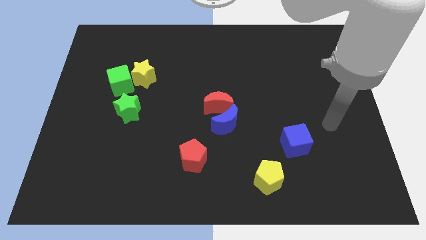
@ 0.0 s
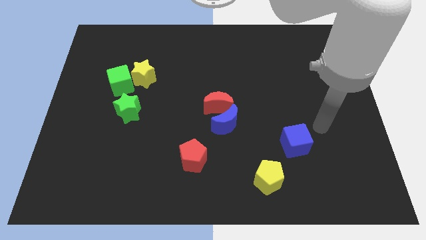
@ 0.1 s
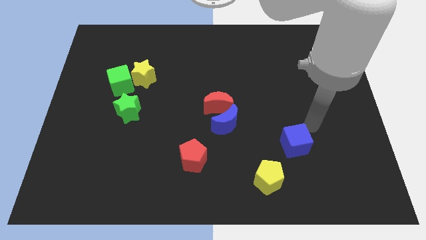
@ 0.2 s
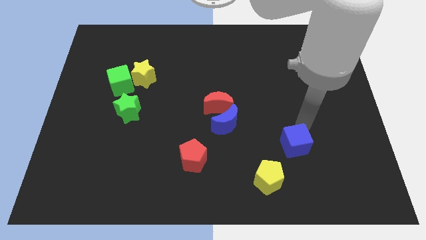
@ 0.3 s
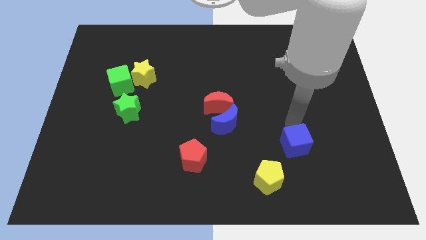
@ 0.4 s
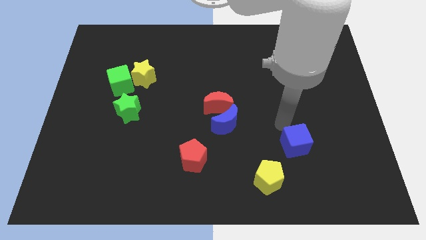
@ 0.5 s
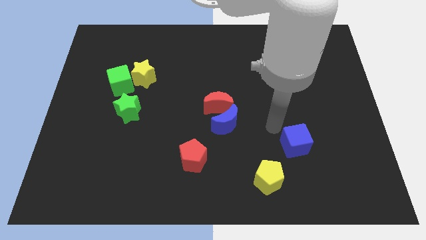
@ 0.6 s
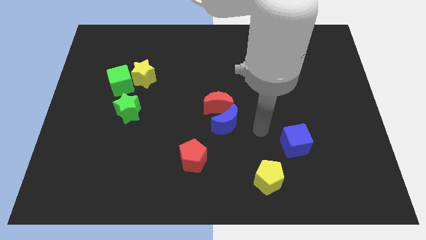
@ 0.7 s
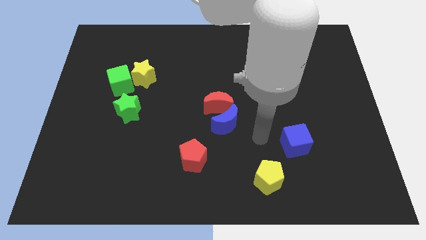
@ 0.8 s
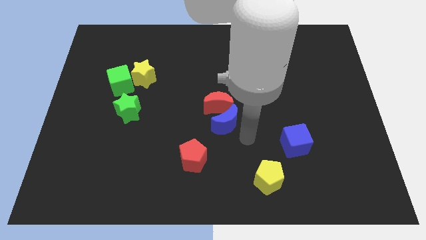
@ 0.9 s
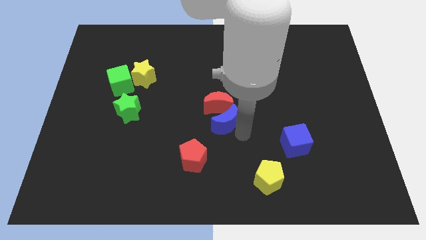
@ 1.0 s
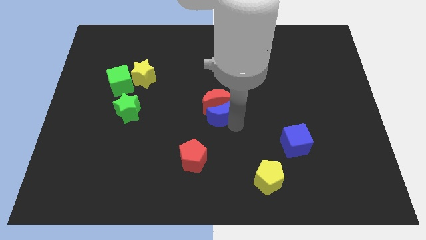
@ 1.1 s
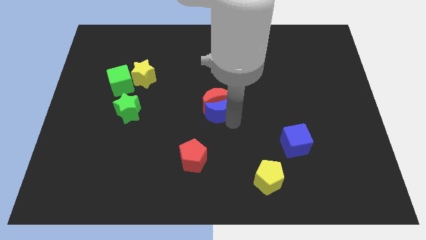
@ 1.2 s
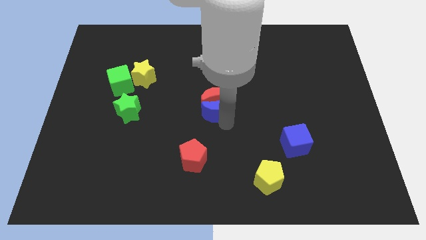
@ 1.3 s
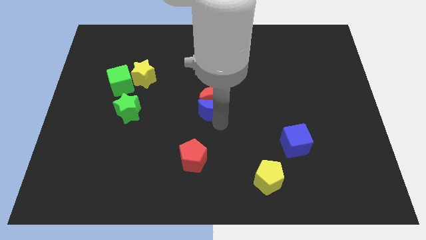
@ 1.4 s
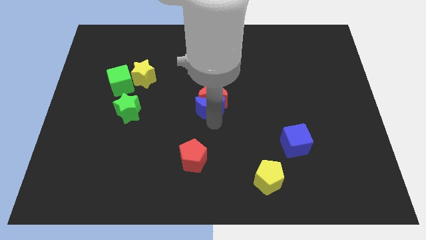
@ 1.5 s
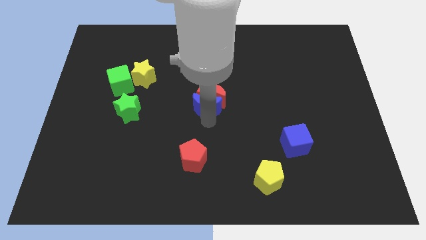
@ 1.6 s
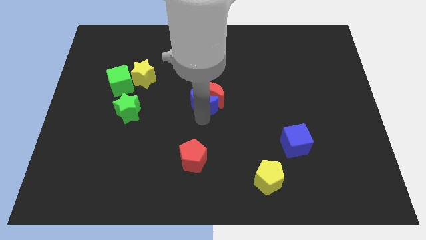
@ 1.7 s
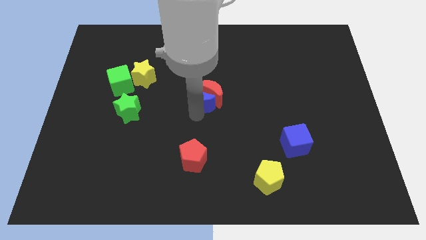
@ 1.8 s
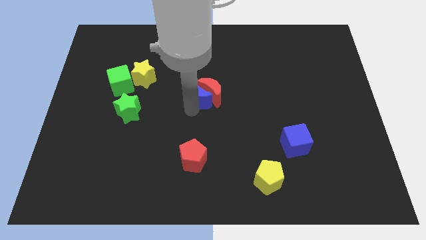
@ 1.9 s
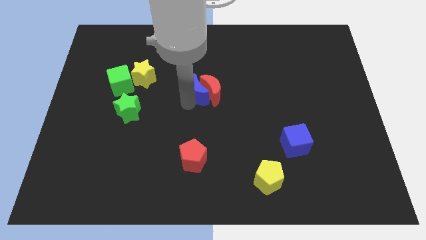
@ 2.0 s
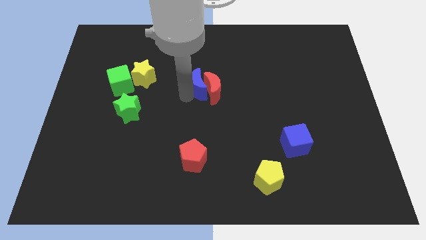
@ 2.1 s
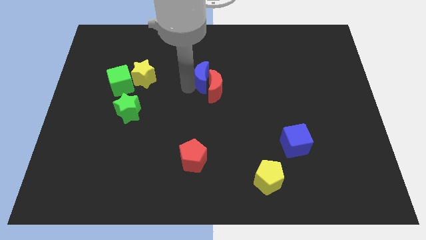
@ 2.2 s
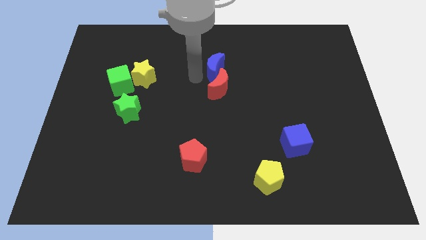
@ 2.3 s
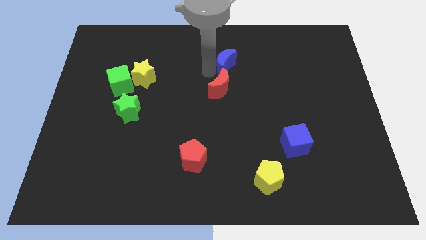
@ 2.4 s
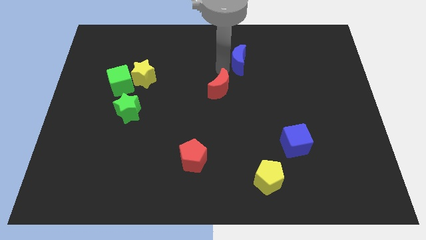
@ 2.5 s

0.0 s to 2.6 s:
pull the red moon apart from the blue moon

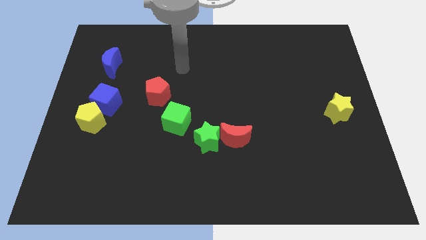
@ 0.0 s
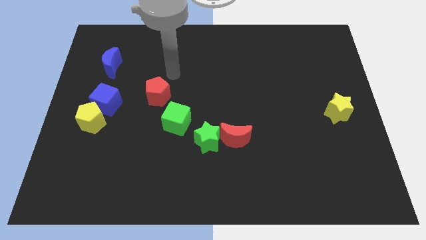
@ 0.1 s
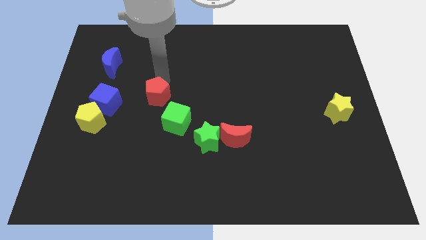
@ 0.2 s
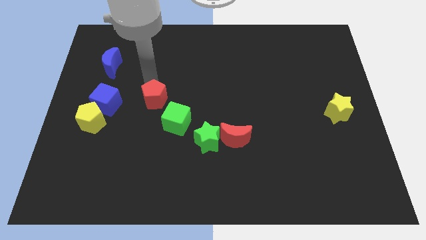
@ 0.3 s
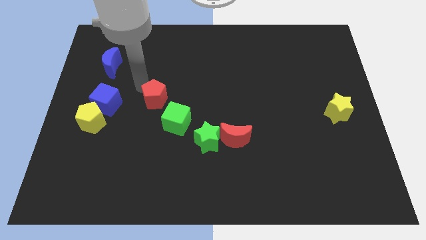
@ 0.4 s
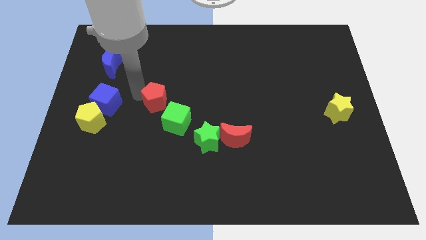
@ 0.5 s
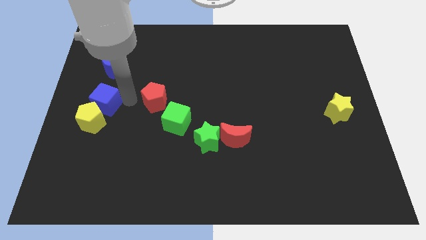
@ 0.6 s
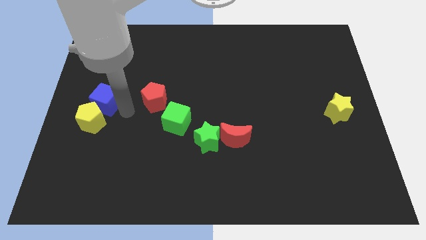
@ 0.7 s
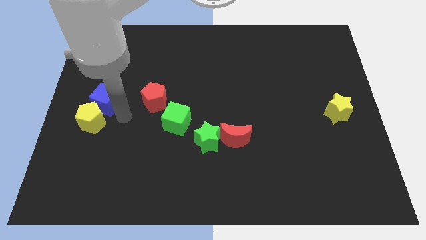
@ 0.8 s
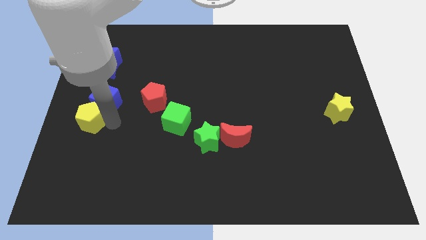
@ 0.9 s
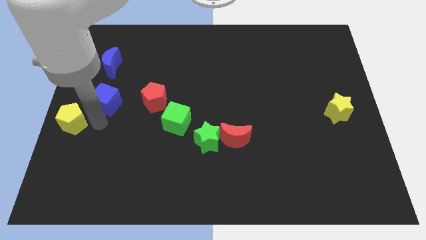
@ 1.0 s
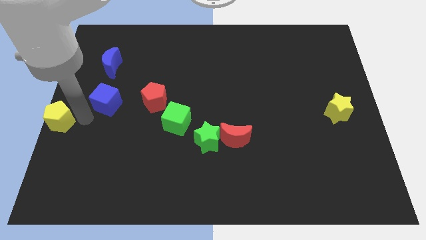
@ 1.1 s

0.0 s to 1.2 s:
separate the blue cube from the yellow pentagon

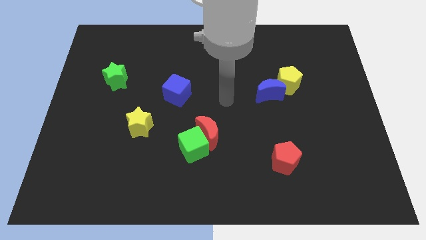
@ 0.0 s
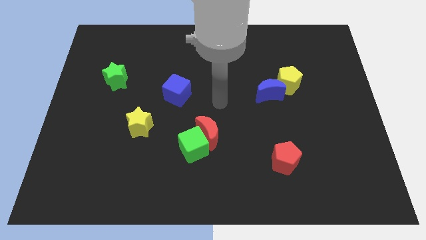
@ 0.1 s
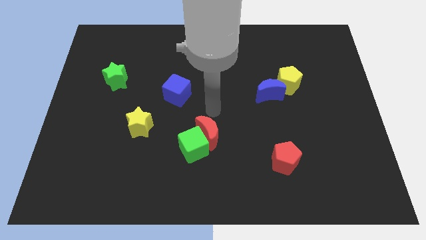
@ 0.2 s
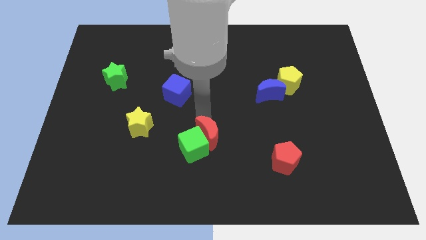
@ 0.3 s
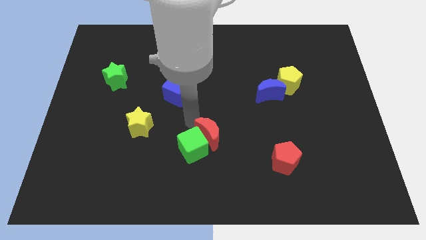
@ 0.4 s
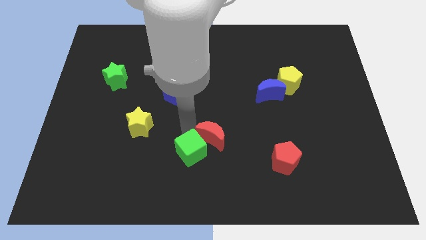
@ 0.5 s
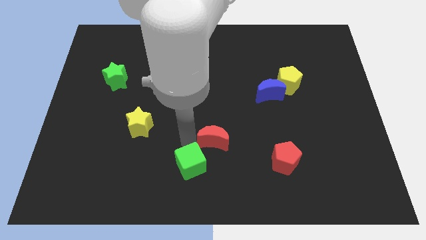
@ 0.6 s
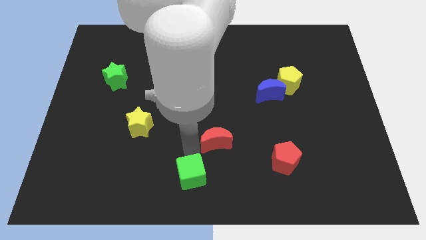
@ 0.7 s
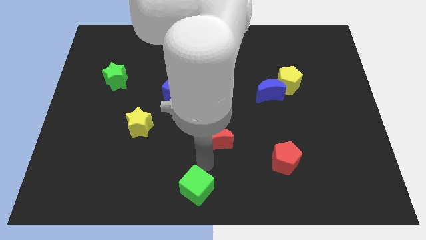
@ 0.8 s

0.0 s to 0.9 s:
move the red moon away from the green cube

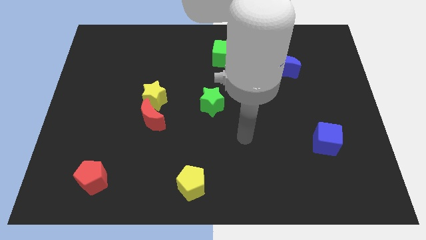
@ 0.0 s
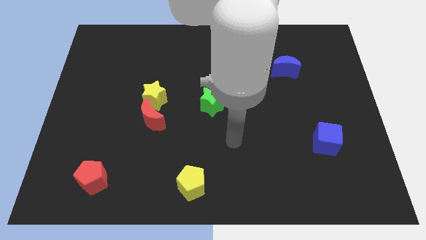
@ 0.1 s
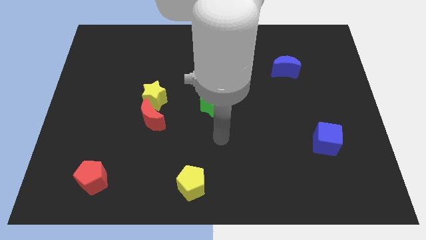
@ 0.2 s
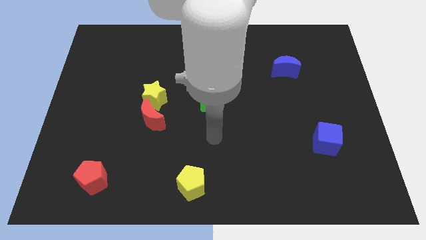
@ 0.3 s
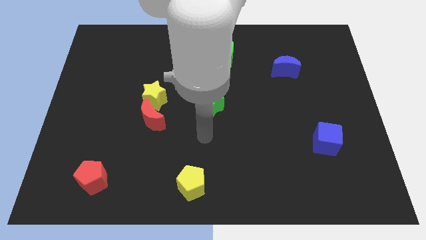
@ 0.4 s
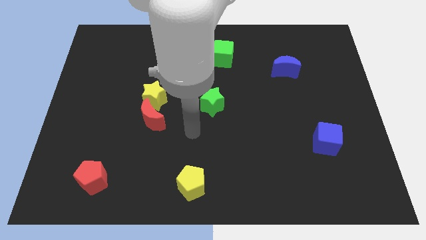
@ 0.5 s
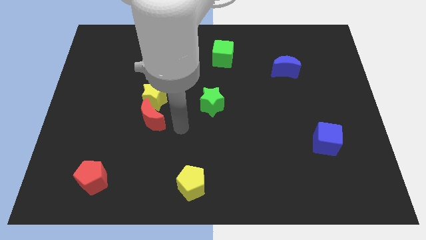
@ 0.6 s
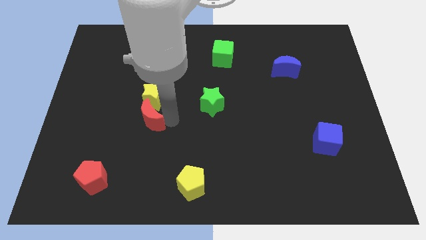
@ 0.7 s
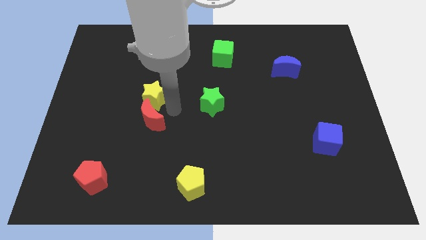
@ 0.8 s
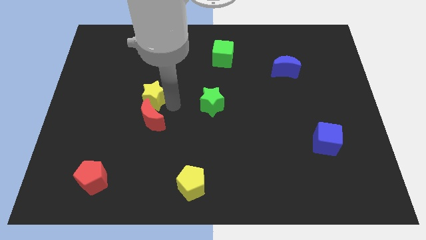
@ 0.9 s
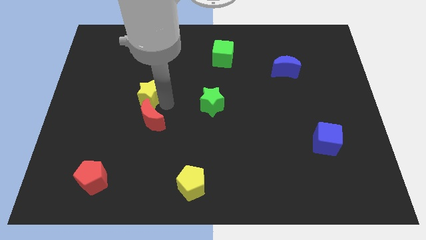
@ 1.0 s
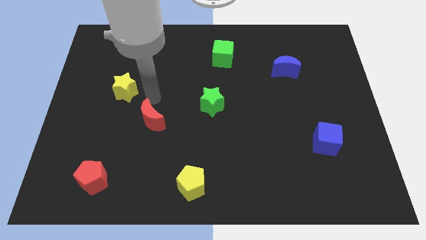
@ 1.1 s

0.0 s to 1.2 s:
pull the red moon apart from the yellow star

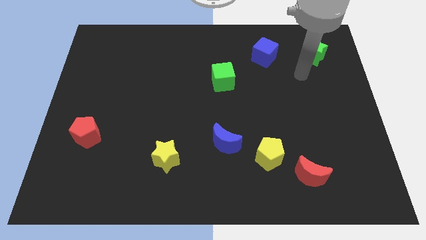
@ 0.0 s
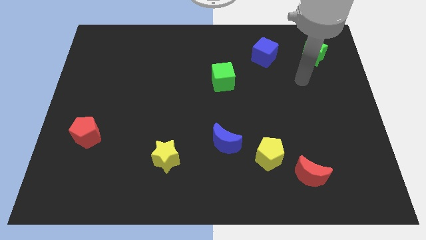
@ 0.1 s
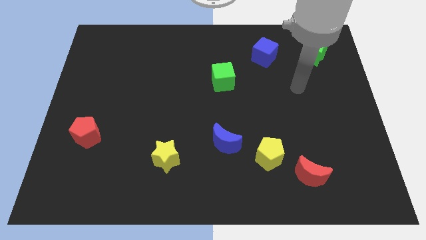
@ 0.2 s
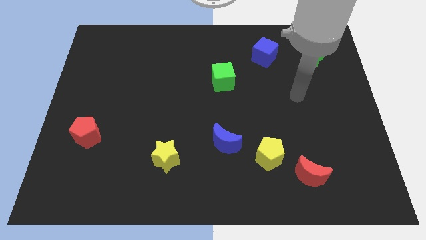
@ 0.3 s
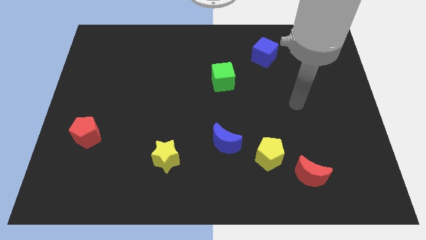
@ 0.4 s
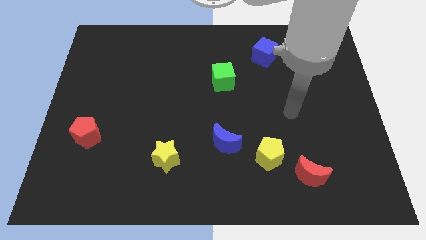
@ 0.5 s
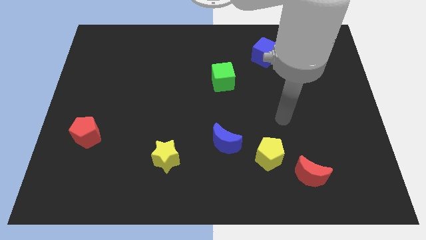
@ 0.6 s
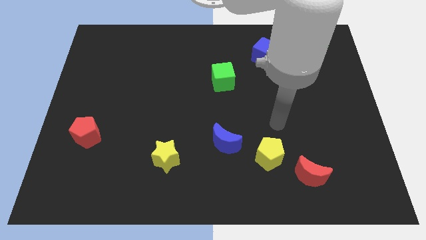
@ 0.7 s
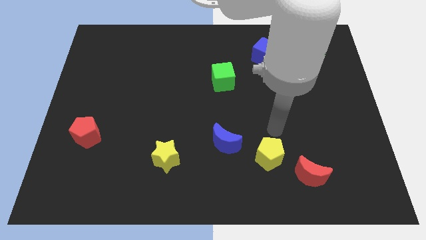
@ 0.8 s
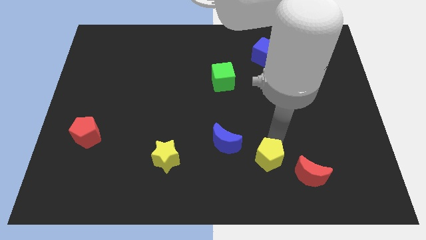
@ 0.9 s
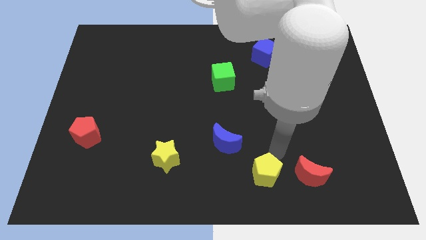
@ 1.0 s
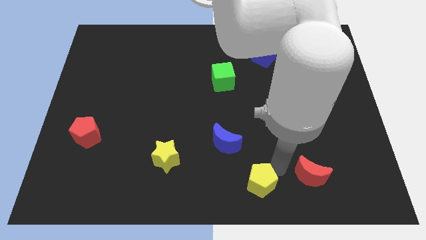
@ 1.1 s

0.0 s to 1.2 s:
pull the red moon apart from the yellow pentagon

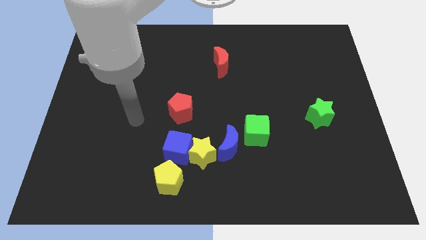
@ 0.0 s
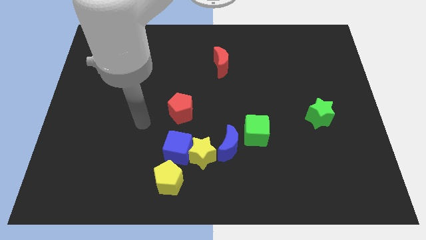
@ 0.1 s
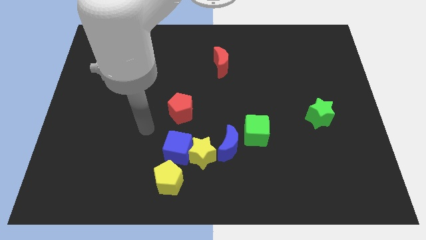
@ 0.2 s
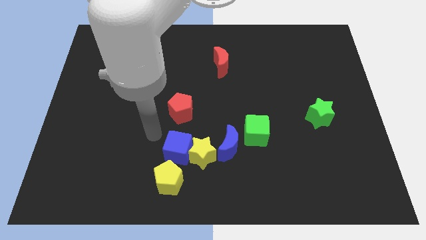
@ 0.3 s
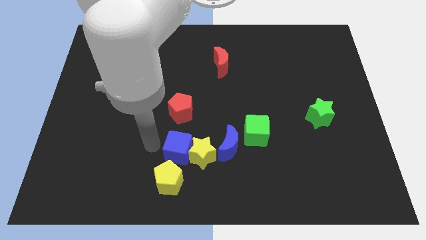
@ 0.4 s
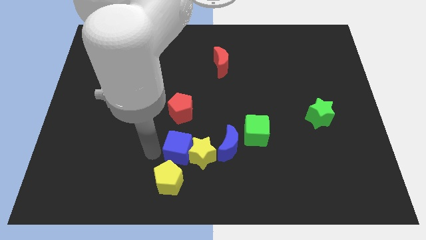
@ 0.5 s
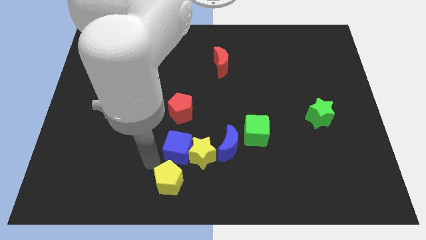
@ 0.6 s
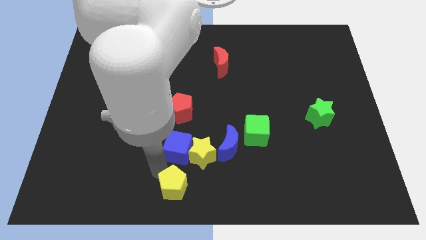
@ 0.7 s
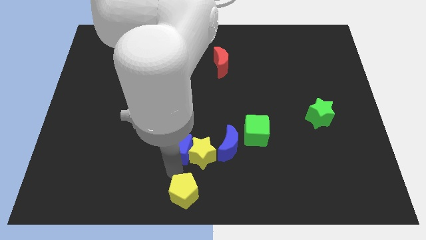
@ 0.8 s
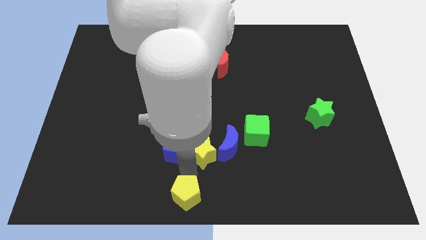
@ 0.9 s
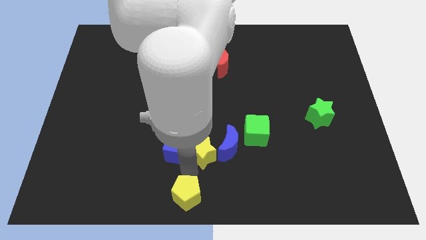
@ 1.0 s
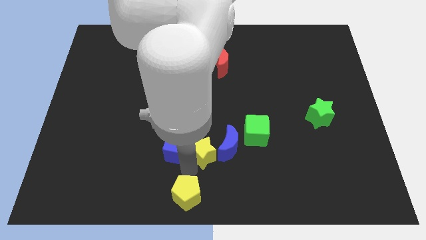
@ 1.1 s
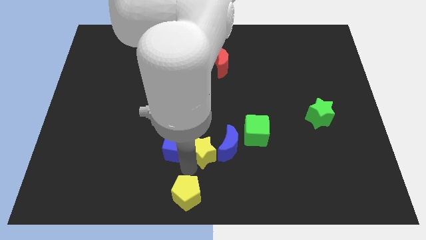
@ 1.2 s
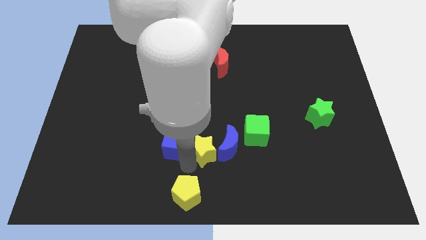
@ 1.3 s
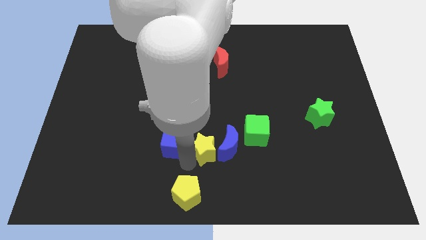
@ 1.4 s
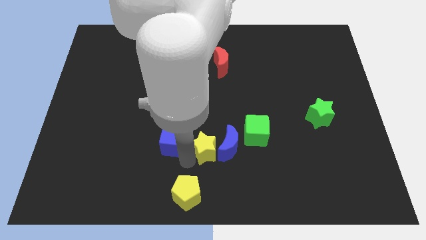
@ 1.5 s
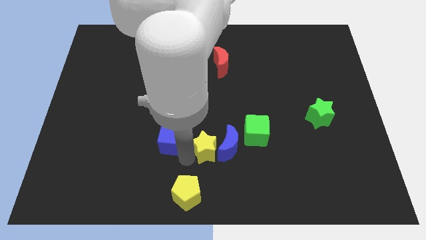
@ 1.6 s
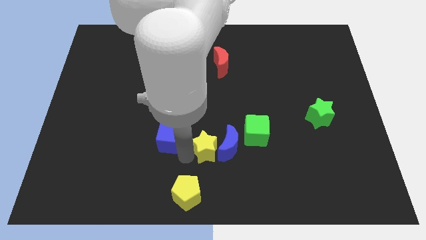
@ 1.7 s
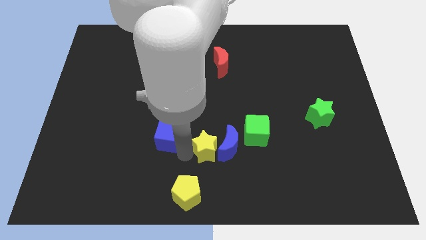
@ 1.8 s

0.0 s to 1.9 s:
move the blue cube away from the yellow star and yellow pentagon

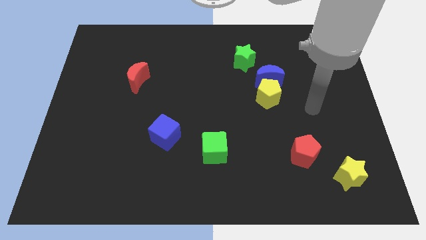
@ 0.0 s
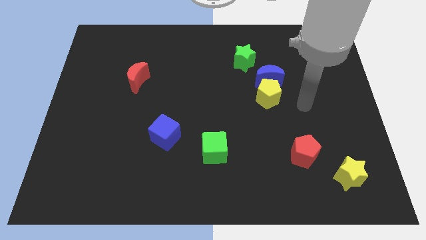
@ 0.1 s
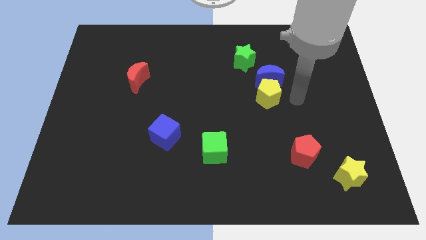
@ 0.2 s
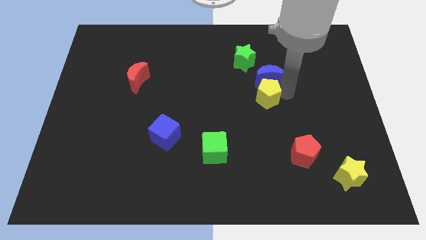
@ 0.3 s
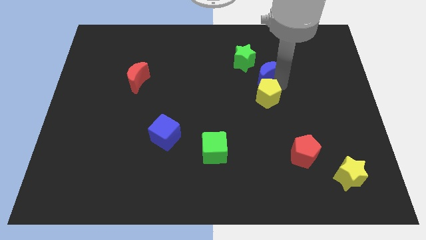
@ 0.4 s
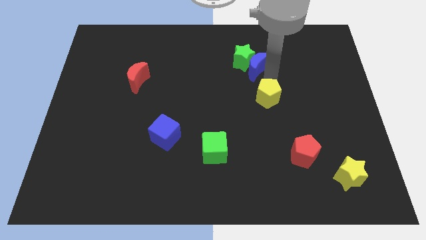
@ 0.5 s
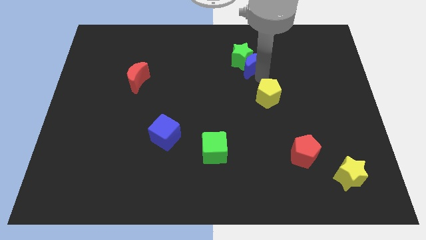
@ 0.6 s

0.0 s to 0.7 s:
pull the yellow pentagon apart from the blue moon
